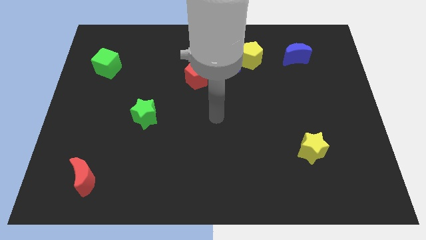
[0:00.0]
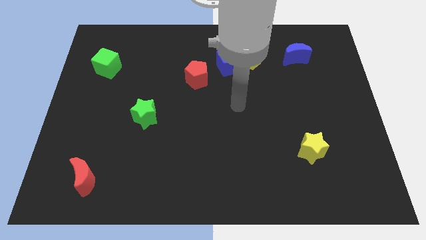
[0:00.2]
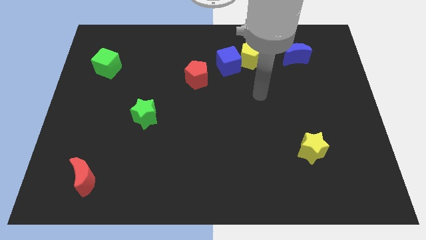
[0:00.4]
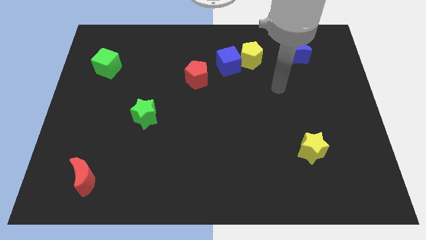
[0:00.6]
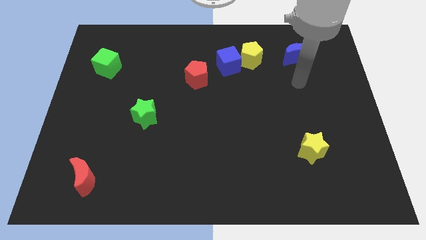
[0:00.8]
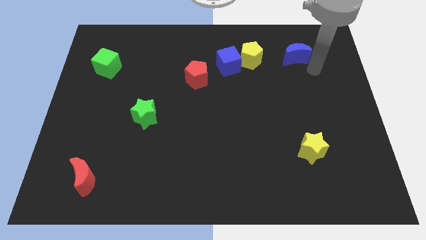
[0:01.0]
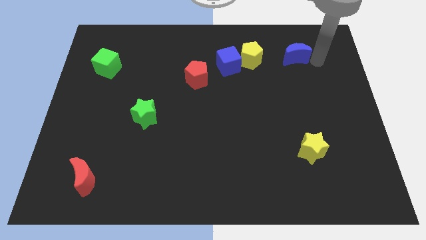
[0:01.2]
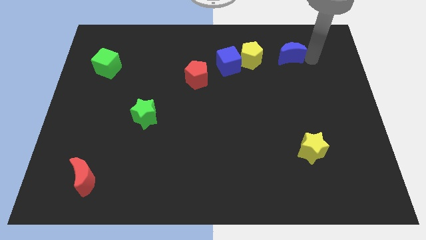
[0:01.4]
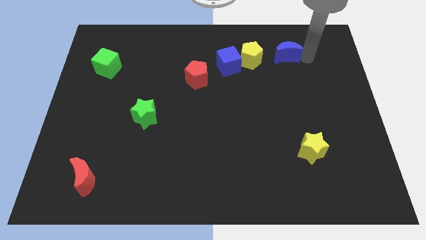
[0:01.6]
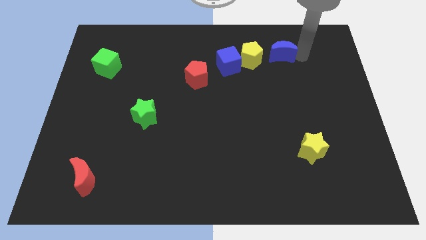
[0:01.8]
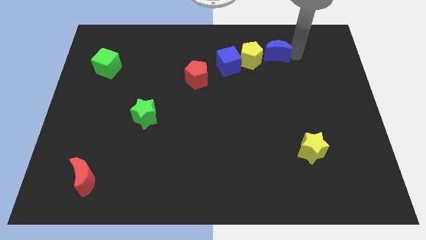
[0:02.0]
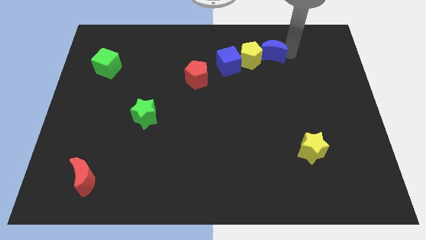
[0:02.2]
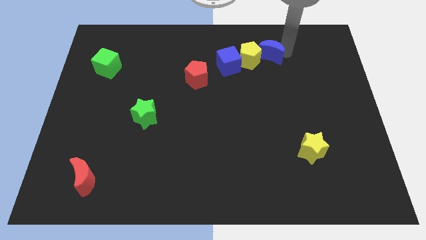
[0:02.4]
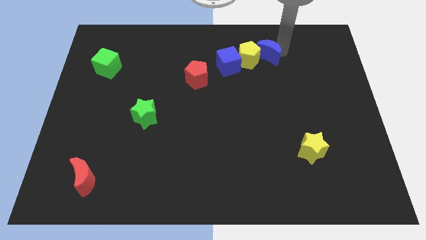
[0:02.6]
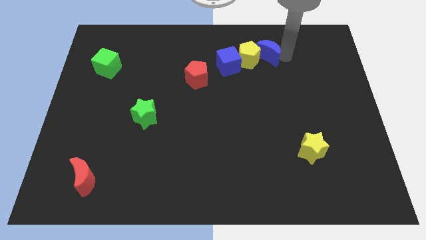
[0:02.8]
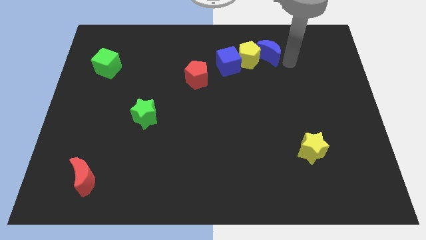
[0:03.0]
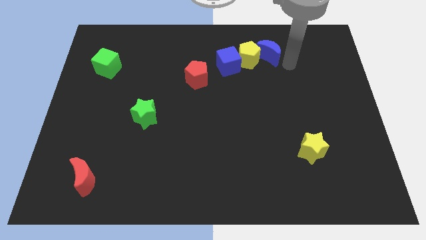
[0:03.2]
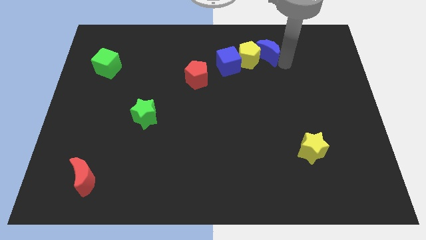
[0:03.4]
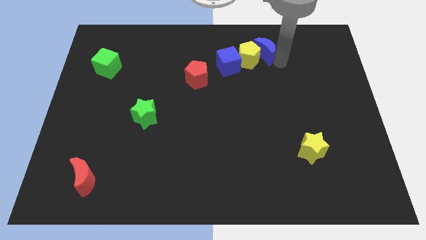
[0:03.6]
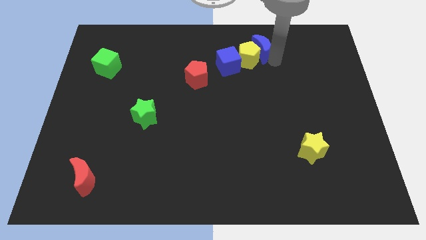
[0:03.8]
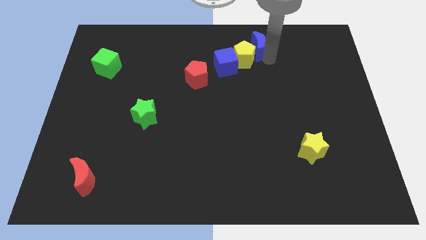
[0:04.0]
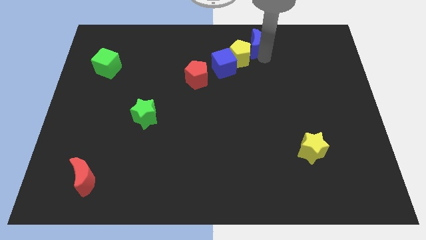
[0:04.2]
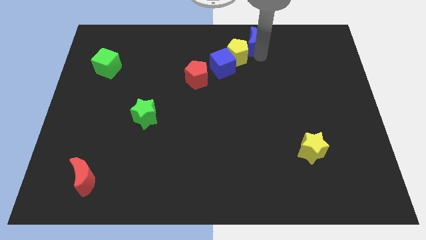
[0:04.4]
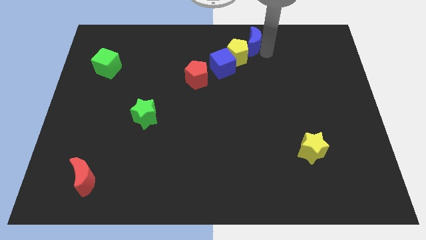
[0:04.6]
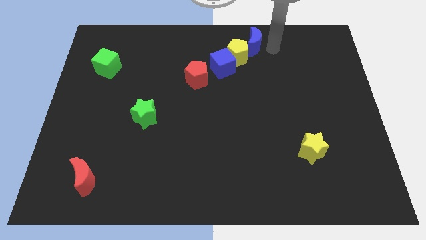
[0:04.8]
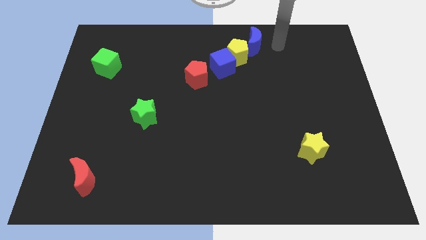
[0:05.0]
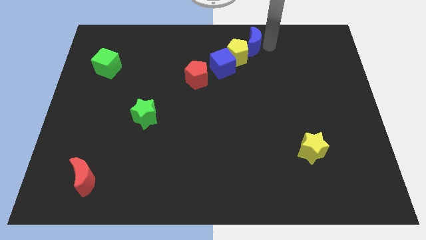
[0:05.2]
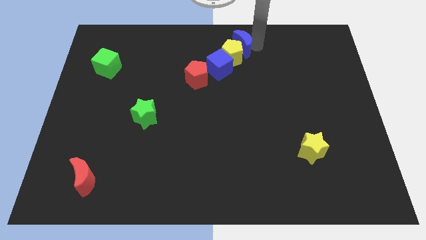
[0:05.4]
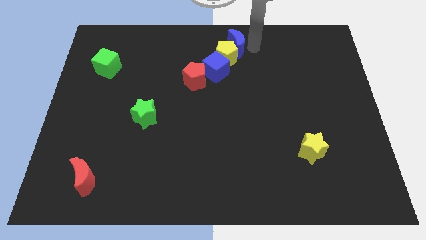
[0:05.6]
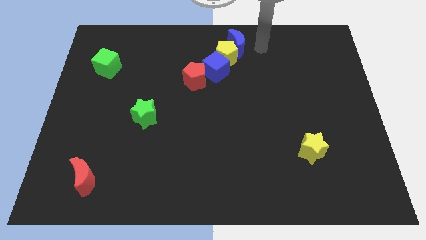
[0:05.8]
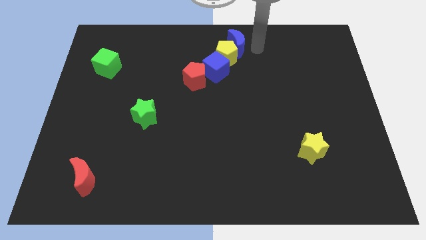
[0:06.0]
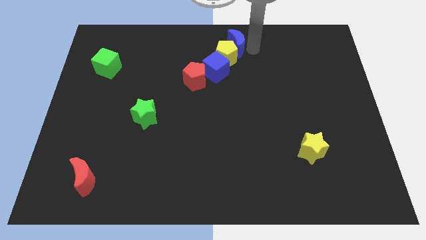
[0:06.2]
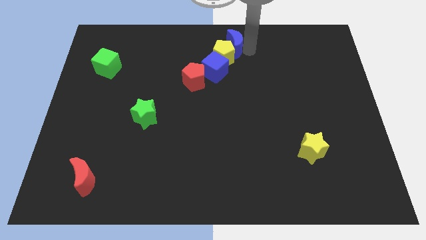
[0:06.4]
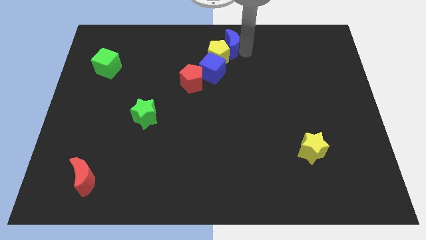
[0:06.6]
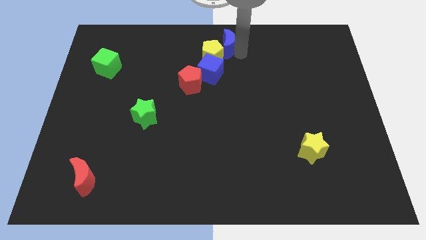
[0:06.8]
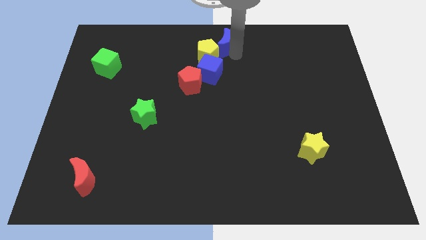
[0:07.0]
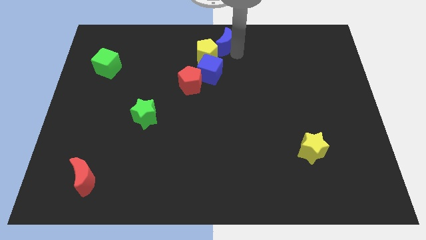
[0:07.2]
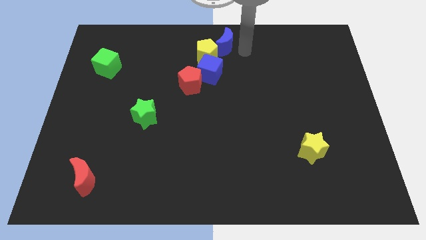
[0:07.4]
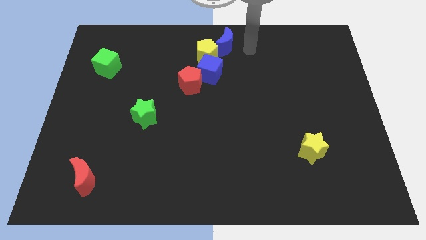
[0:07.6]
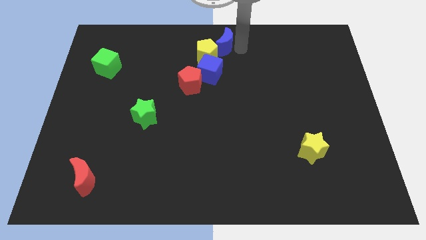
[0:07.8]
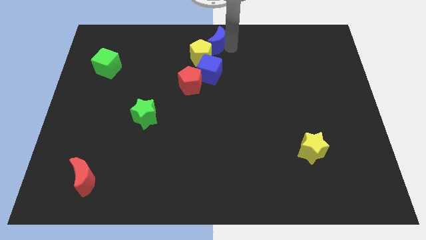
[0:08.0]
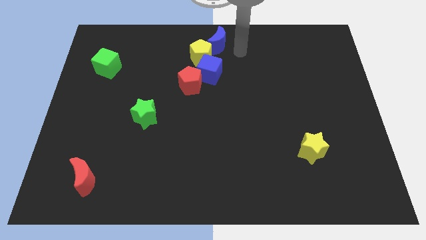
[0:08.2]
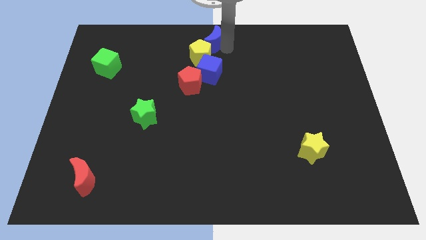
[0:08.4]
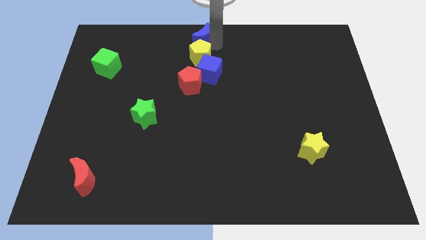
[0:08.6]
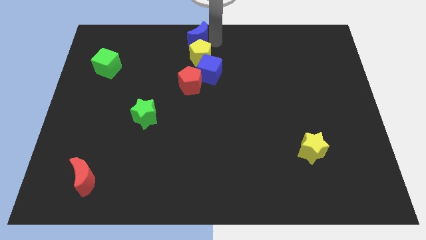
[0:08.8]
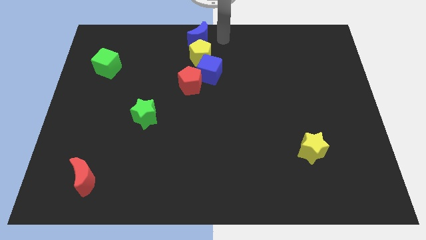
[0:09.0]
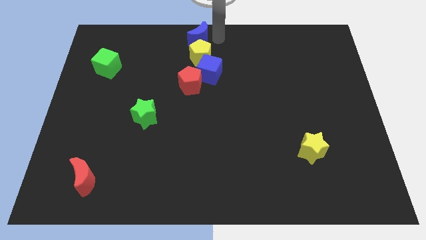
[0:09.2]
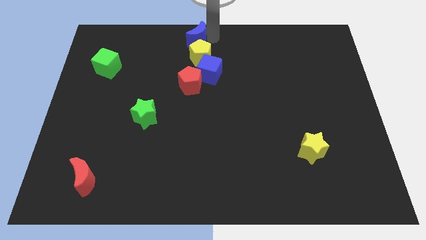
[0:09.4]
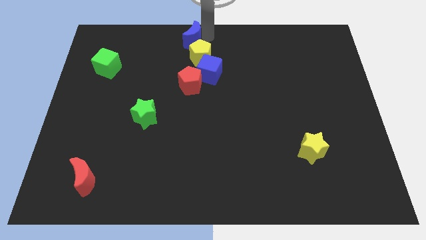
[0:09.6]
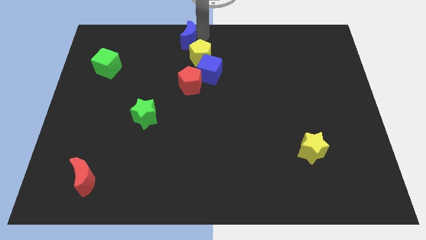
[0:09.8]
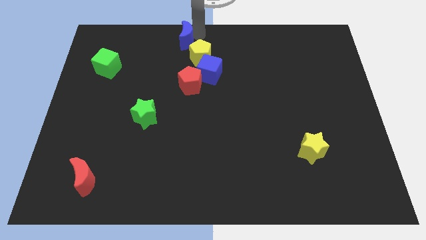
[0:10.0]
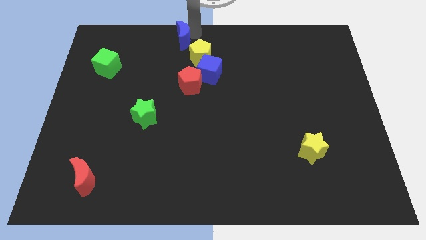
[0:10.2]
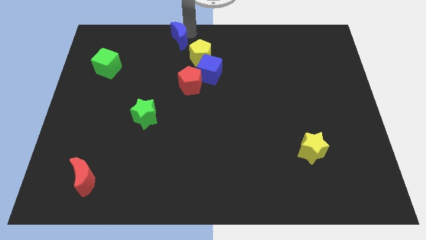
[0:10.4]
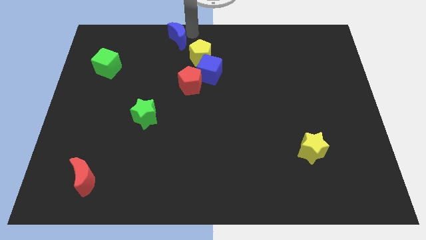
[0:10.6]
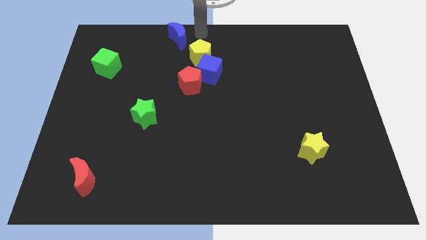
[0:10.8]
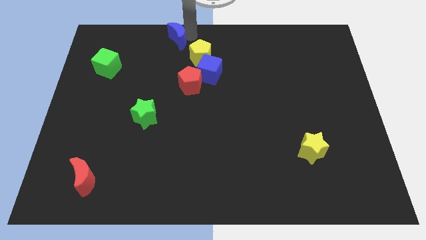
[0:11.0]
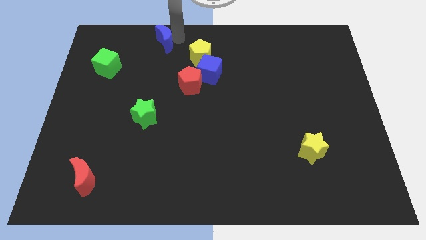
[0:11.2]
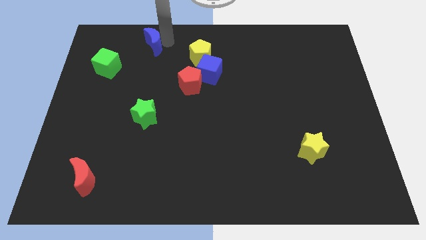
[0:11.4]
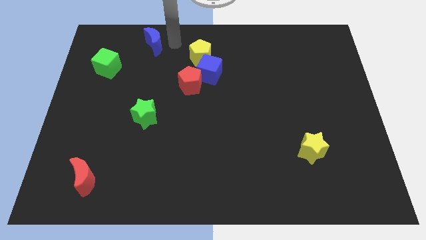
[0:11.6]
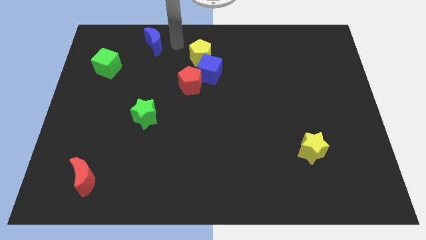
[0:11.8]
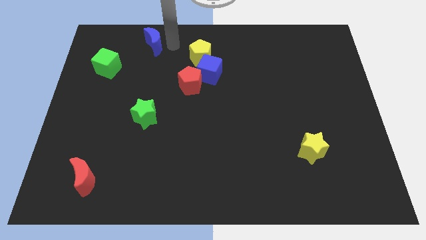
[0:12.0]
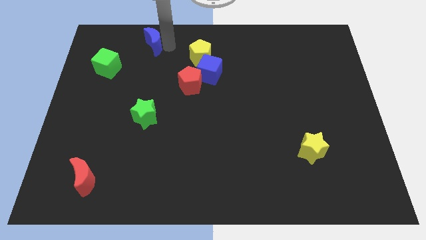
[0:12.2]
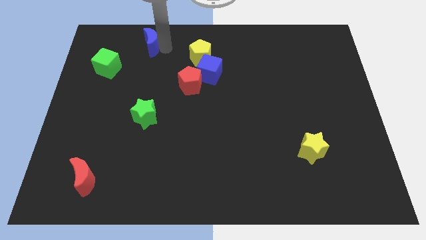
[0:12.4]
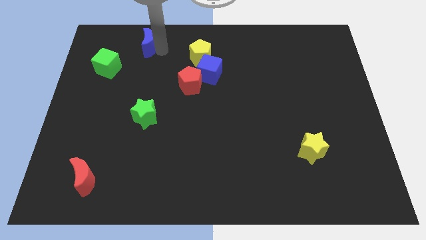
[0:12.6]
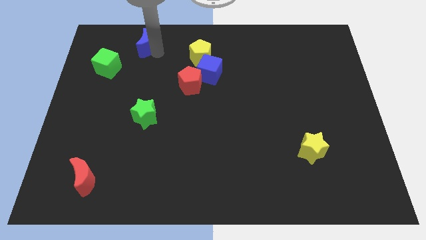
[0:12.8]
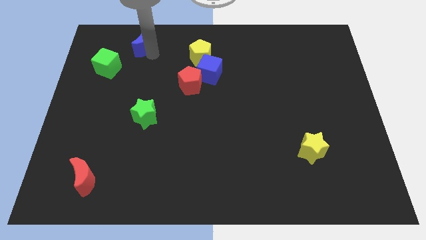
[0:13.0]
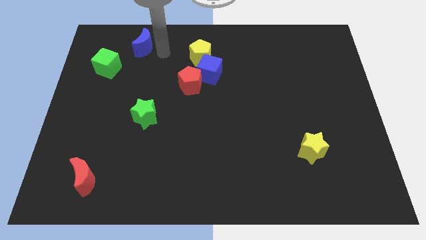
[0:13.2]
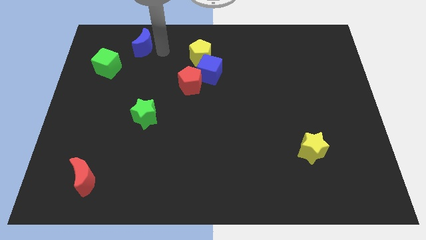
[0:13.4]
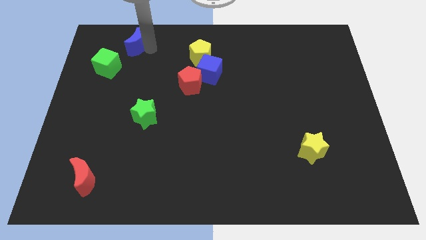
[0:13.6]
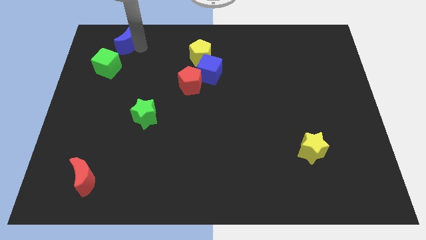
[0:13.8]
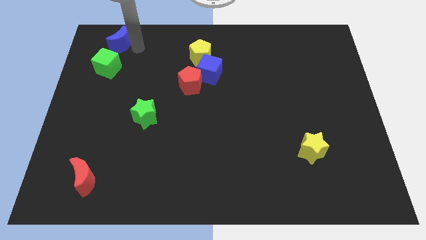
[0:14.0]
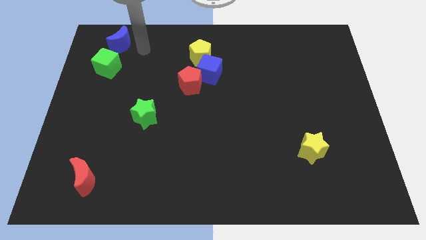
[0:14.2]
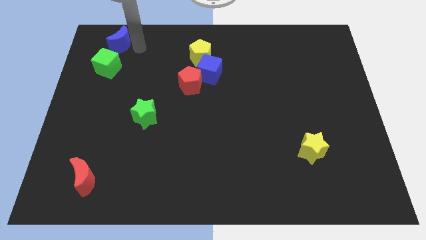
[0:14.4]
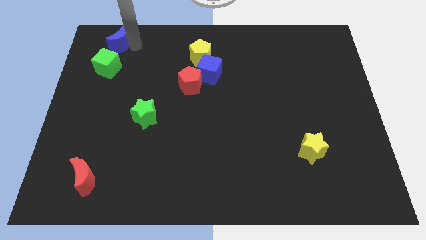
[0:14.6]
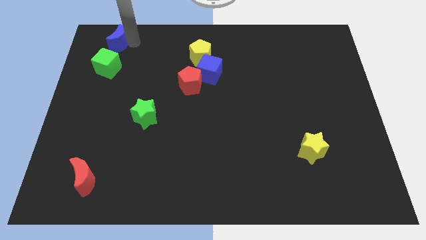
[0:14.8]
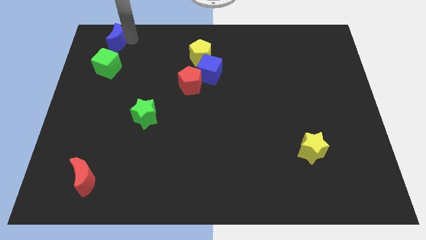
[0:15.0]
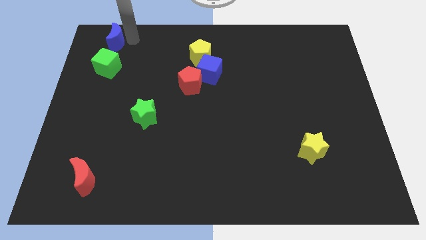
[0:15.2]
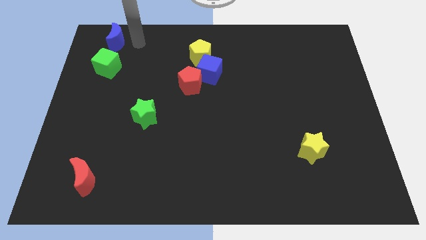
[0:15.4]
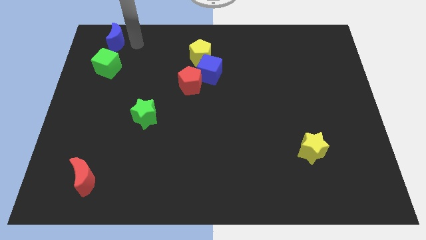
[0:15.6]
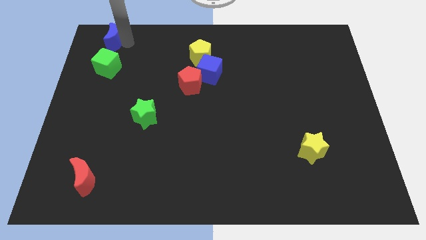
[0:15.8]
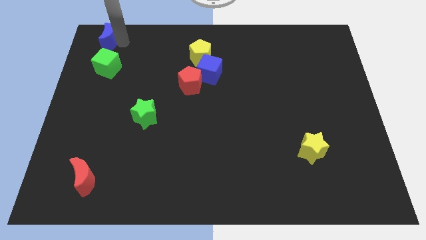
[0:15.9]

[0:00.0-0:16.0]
put the blue moon to the top left
